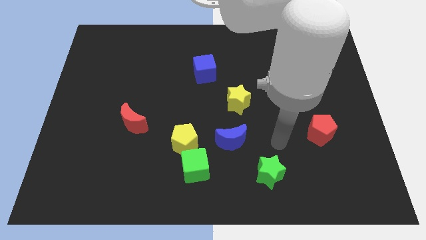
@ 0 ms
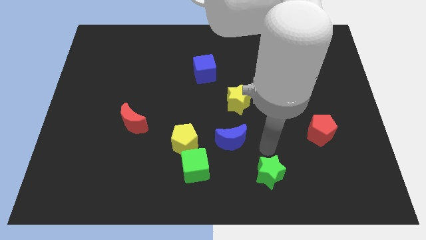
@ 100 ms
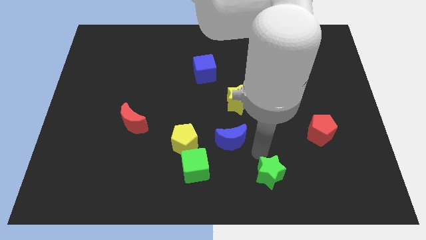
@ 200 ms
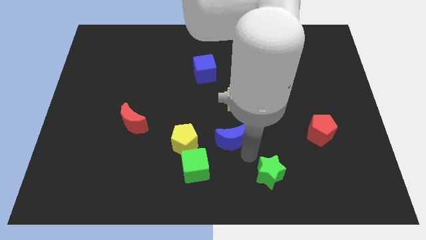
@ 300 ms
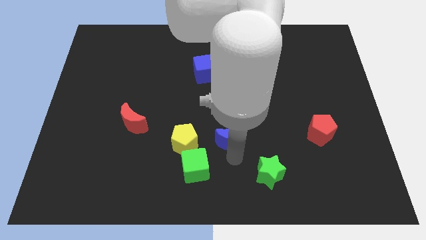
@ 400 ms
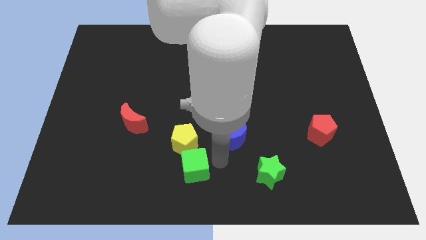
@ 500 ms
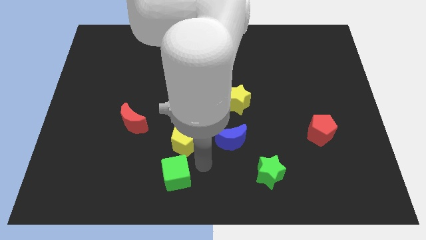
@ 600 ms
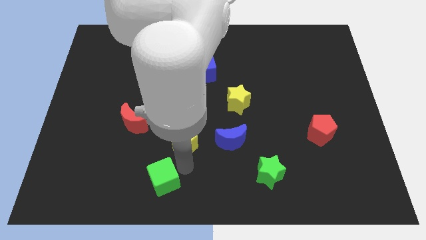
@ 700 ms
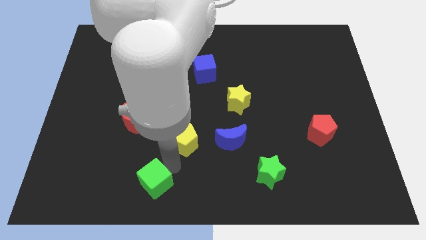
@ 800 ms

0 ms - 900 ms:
move the yellow pentagon away from the green cube

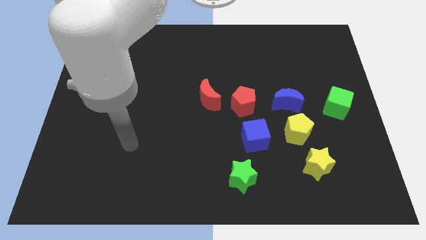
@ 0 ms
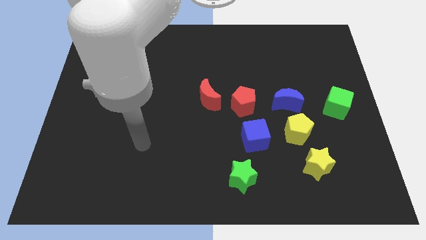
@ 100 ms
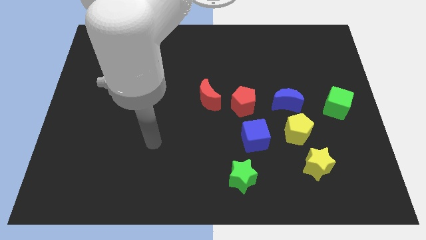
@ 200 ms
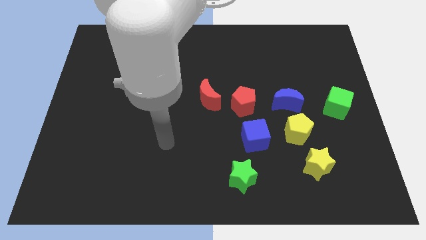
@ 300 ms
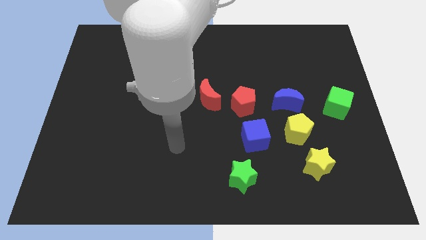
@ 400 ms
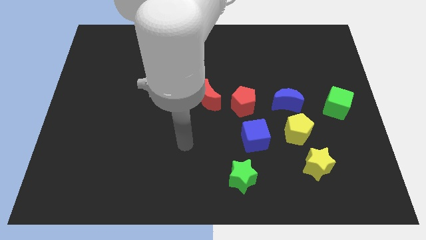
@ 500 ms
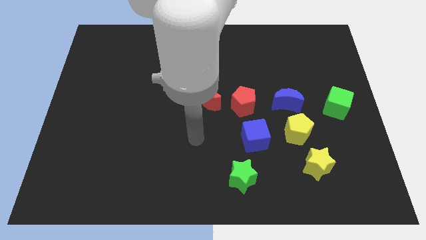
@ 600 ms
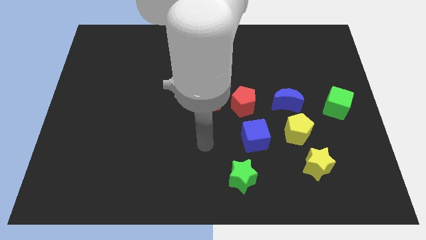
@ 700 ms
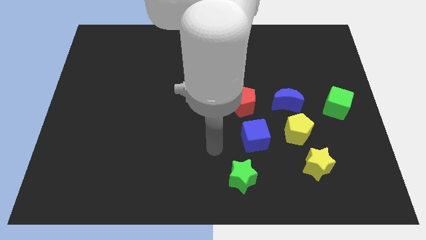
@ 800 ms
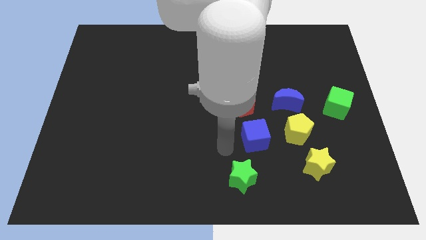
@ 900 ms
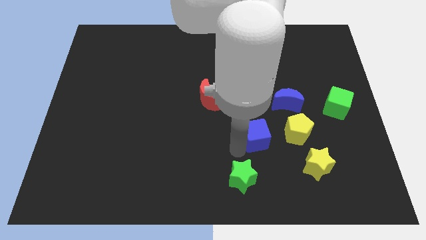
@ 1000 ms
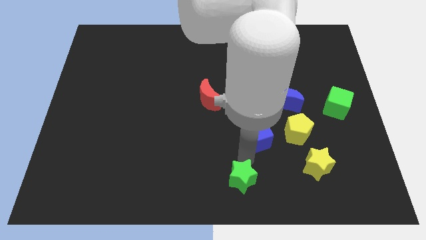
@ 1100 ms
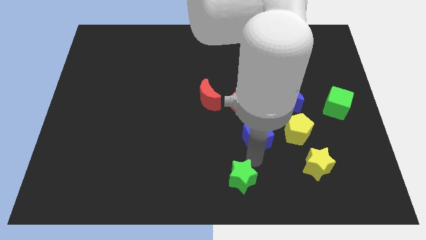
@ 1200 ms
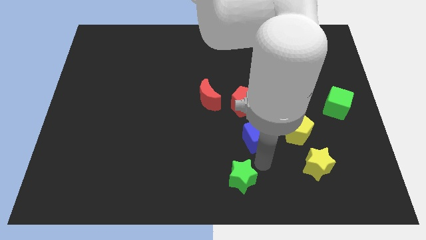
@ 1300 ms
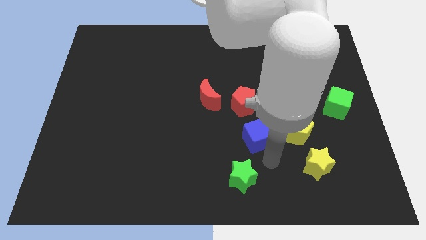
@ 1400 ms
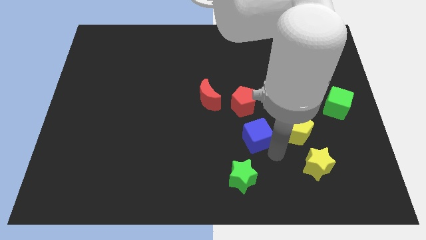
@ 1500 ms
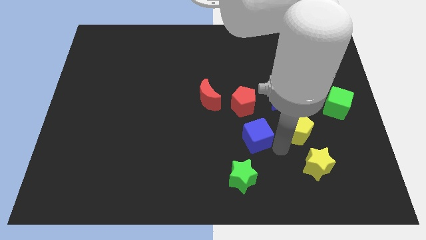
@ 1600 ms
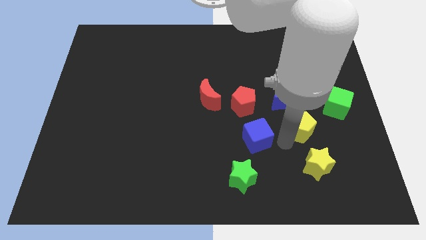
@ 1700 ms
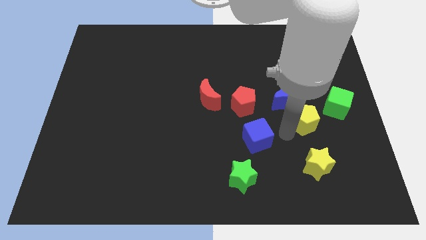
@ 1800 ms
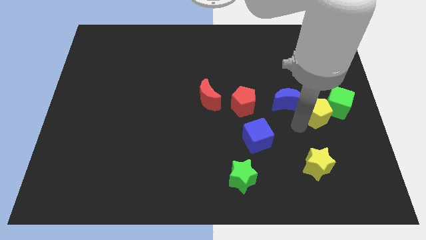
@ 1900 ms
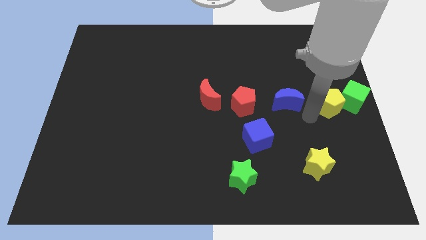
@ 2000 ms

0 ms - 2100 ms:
pull the blue moon apart from the yellow pentagon

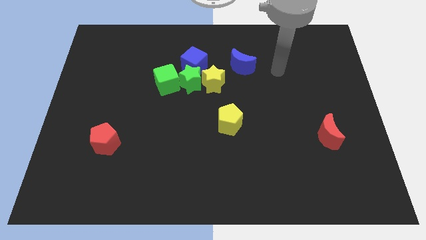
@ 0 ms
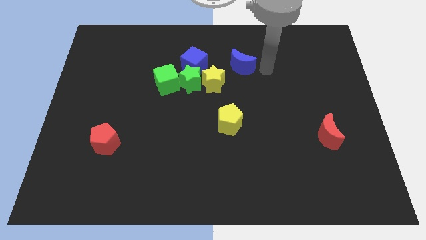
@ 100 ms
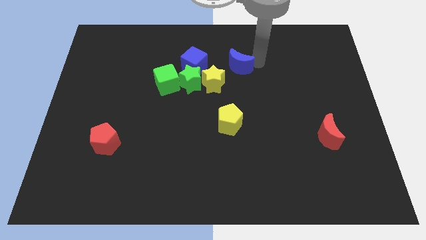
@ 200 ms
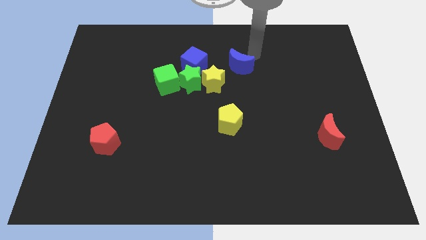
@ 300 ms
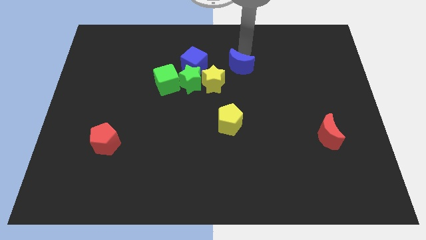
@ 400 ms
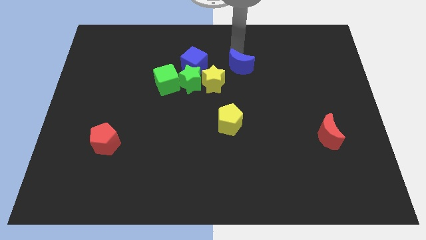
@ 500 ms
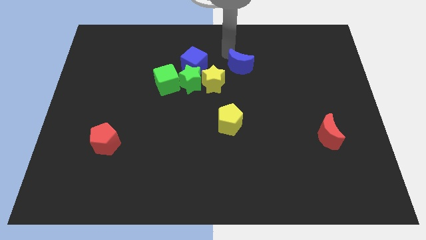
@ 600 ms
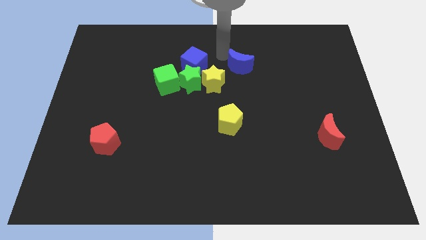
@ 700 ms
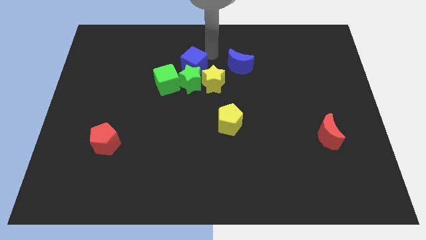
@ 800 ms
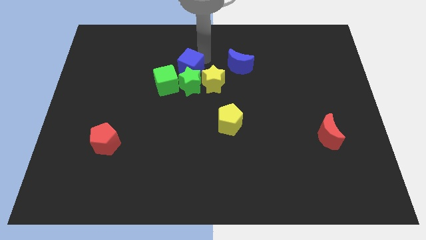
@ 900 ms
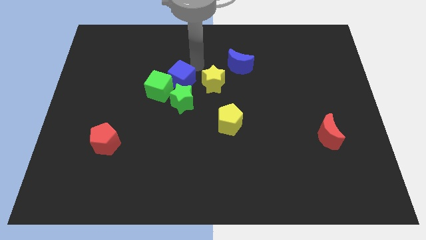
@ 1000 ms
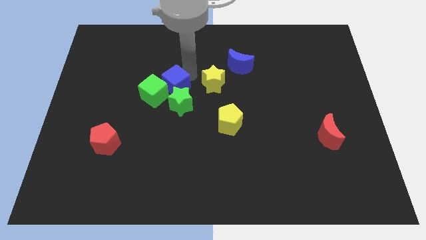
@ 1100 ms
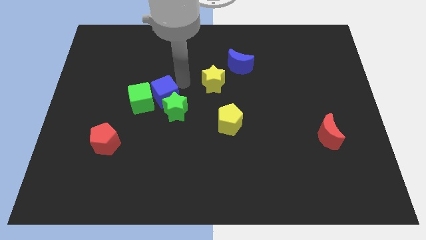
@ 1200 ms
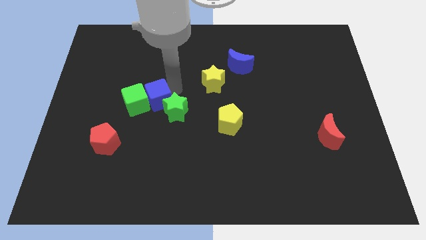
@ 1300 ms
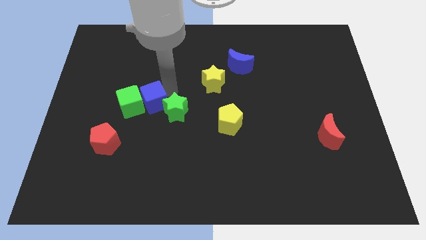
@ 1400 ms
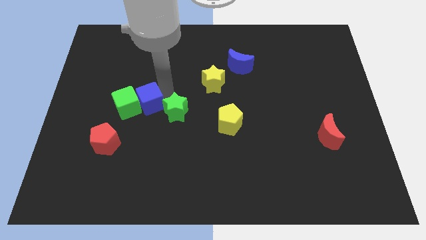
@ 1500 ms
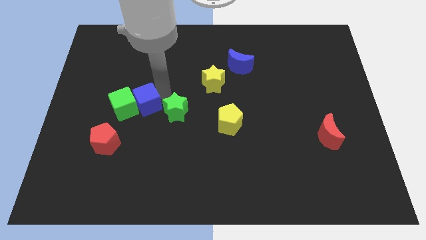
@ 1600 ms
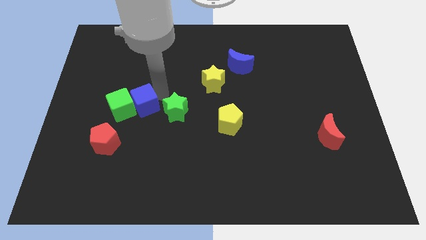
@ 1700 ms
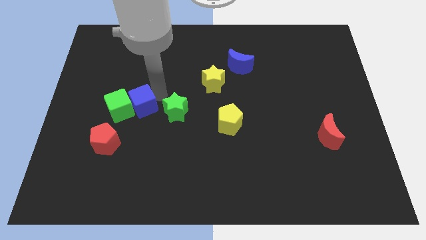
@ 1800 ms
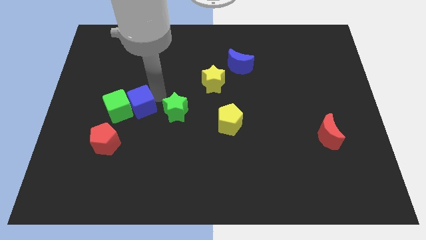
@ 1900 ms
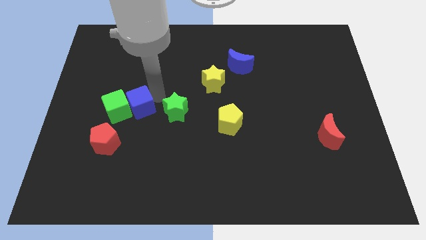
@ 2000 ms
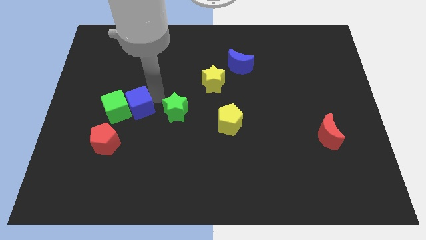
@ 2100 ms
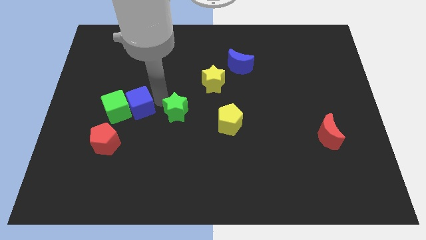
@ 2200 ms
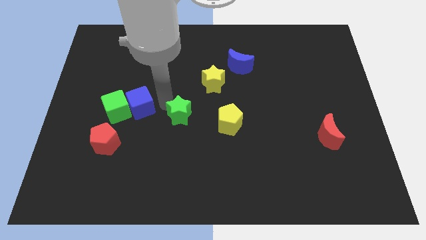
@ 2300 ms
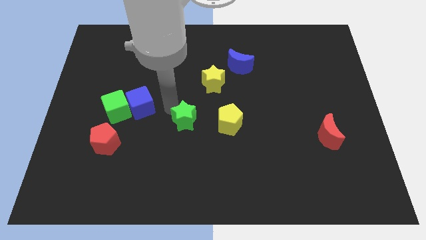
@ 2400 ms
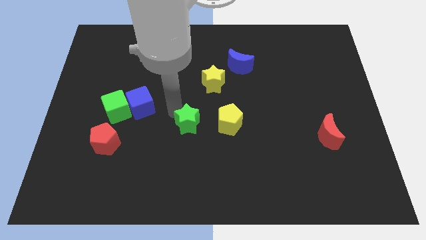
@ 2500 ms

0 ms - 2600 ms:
move the green star away from the green cube, yellow star, and blue cube

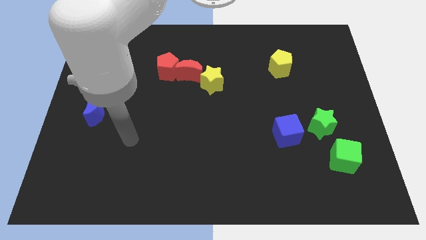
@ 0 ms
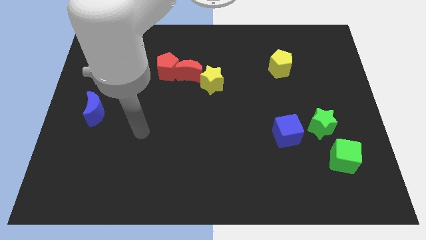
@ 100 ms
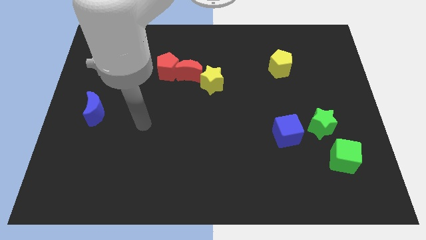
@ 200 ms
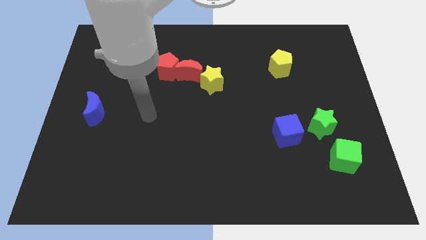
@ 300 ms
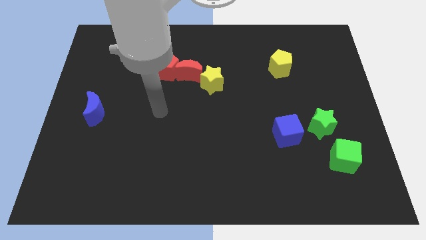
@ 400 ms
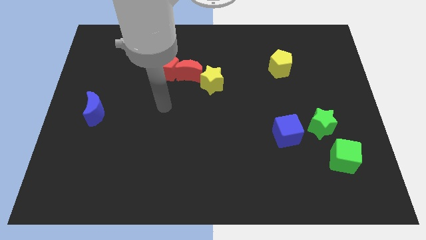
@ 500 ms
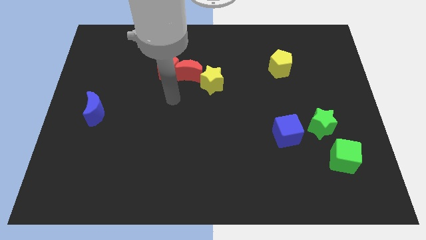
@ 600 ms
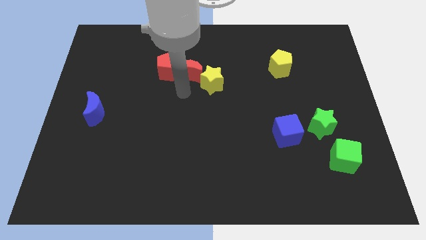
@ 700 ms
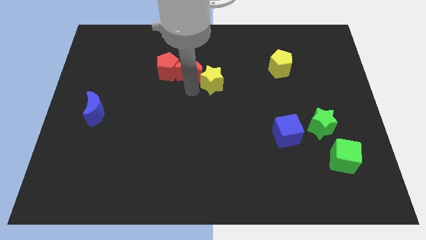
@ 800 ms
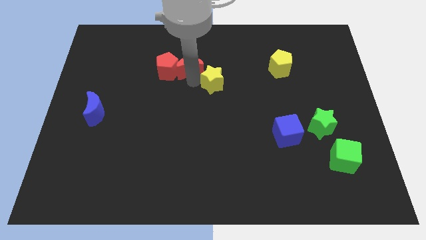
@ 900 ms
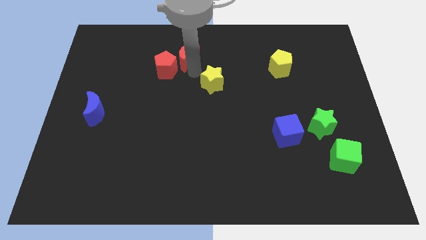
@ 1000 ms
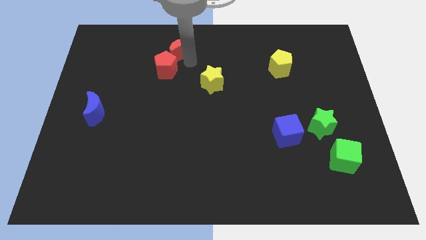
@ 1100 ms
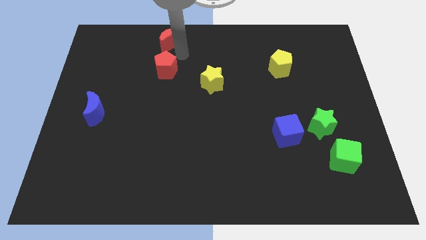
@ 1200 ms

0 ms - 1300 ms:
pull the red pentagon apart from the red moon

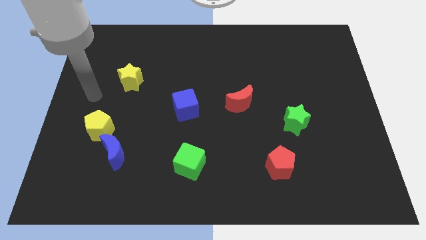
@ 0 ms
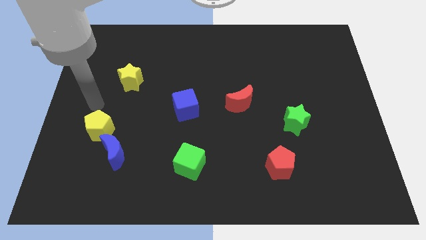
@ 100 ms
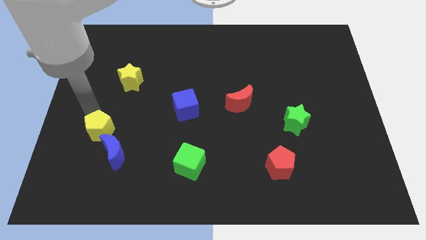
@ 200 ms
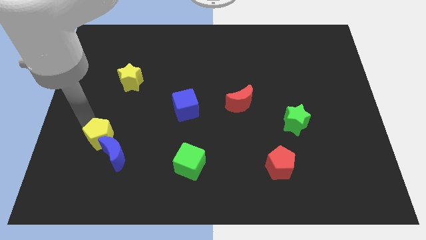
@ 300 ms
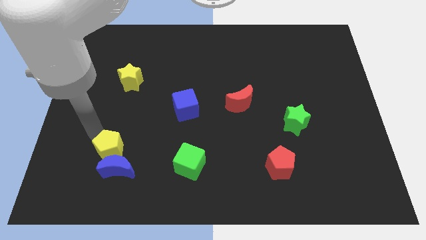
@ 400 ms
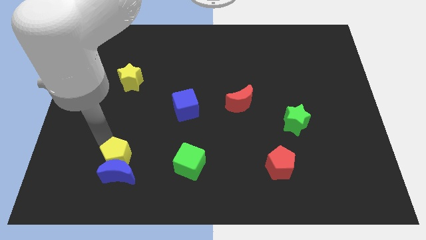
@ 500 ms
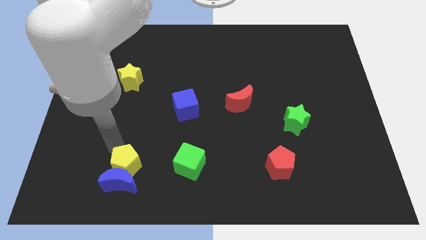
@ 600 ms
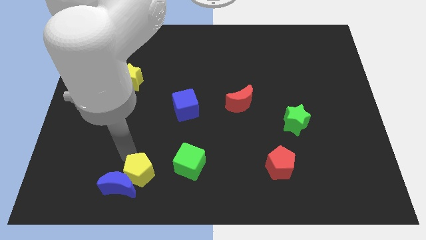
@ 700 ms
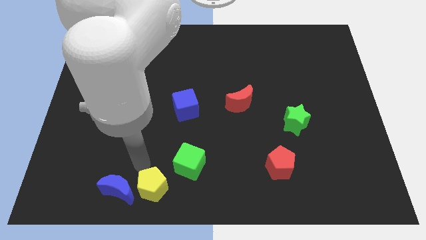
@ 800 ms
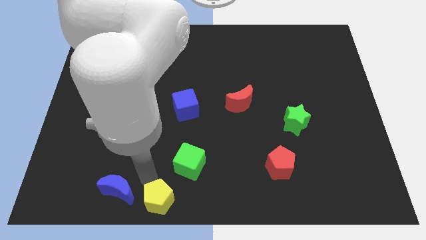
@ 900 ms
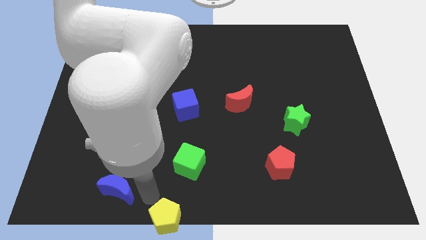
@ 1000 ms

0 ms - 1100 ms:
separate the blue moon from the yellow pentagon

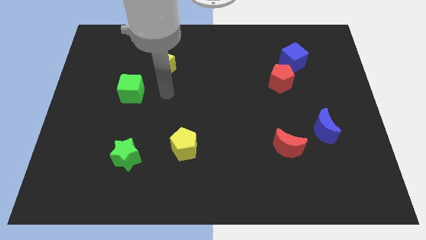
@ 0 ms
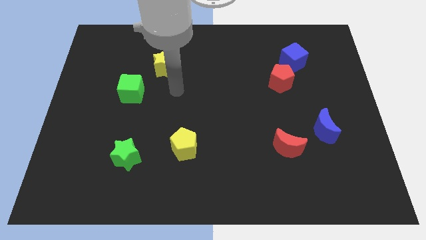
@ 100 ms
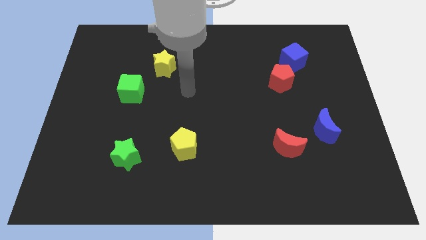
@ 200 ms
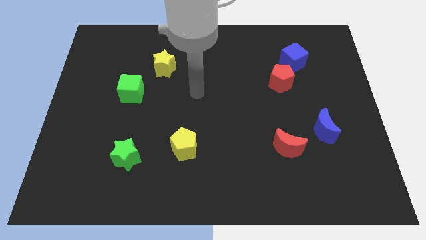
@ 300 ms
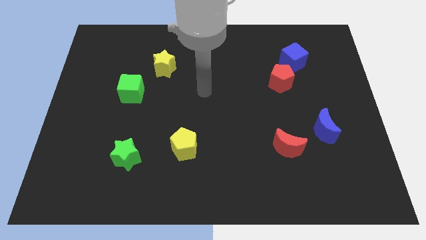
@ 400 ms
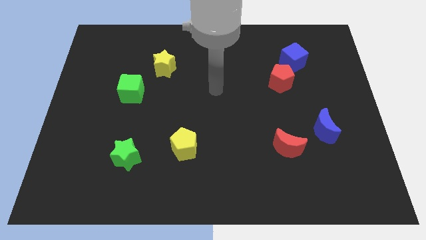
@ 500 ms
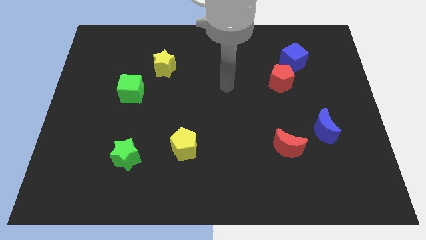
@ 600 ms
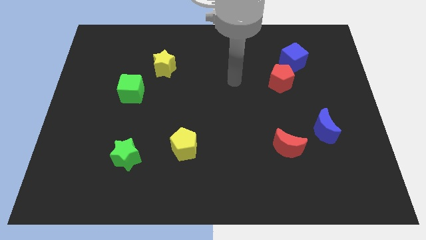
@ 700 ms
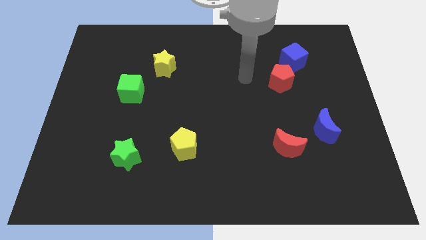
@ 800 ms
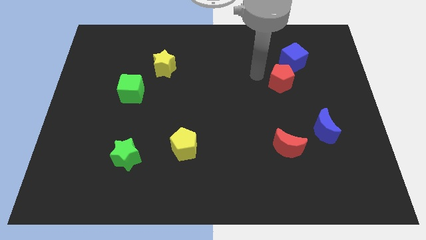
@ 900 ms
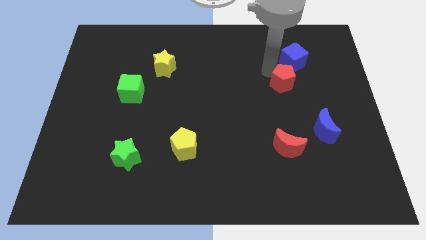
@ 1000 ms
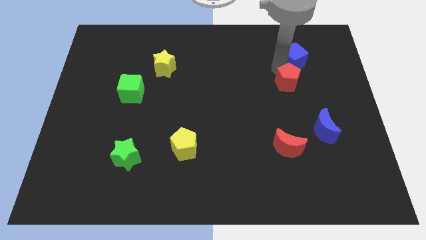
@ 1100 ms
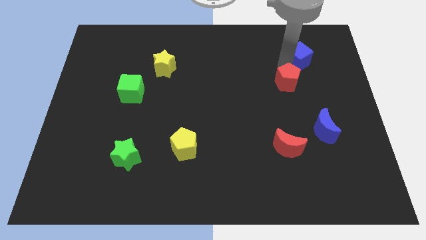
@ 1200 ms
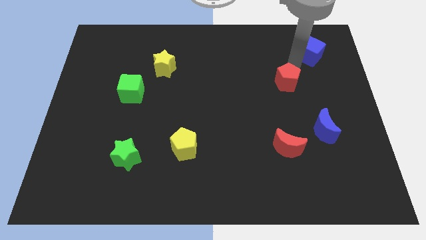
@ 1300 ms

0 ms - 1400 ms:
pull the red pentagon apart from the blue cube
